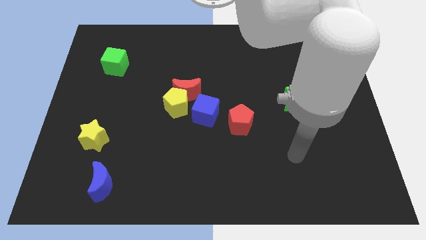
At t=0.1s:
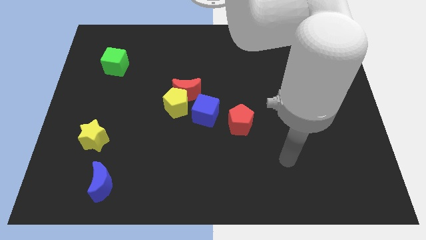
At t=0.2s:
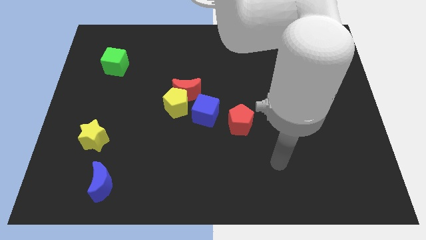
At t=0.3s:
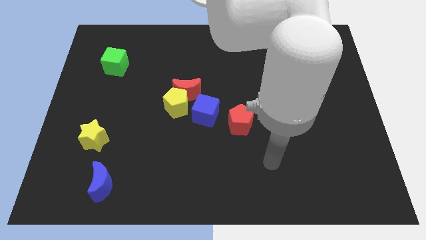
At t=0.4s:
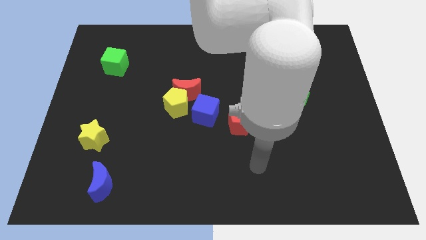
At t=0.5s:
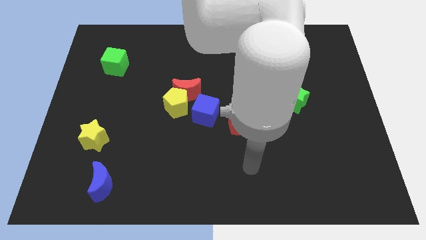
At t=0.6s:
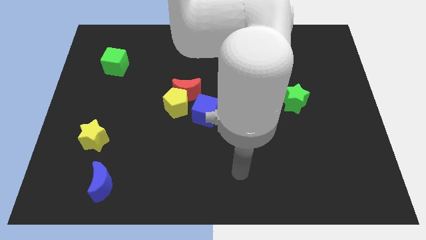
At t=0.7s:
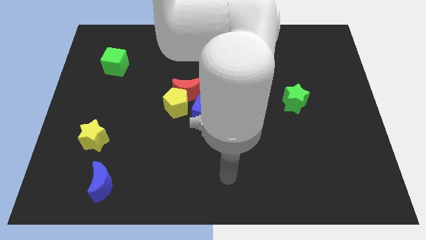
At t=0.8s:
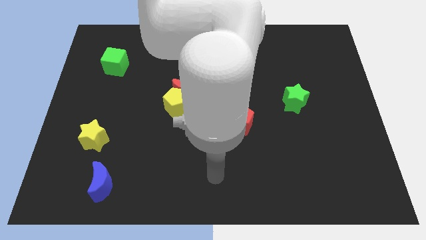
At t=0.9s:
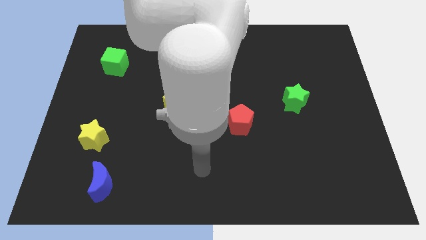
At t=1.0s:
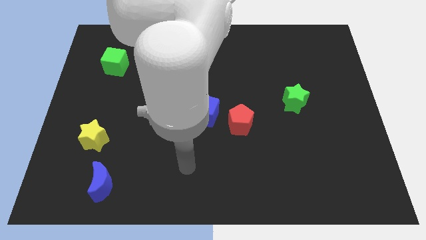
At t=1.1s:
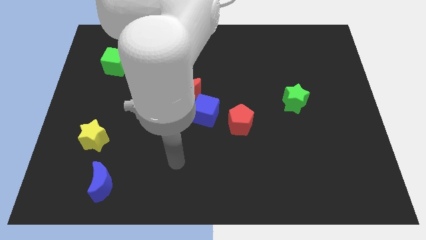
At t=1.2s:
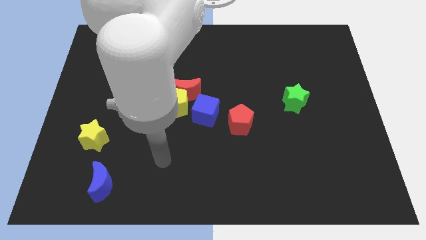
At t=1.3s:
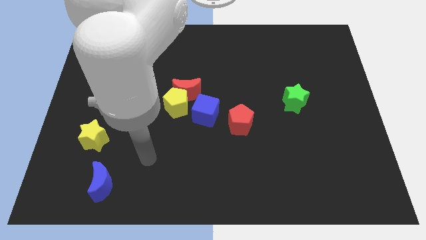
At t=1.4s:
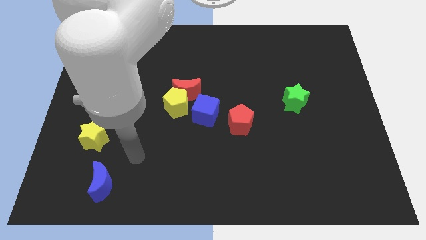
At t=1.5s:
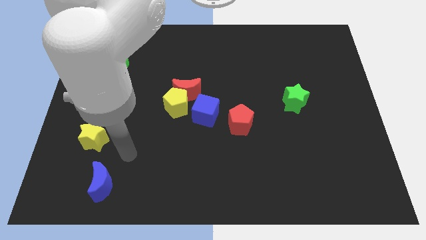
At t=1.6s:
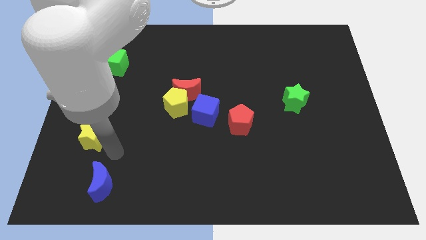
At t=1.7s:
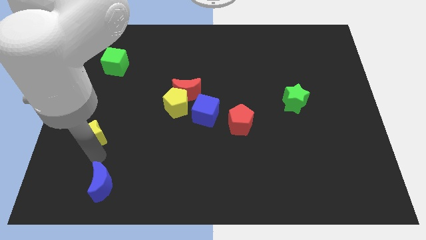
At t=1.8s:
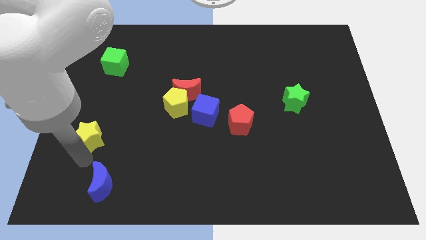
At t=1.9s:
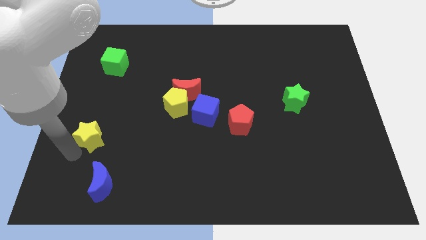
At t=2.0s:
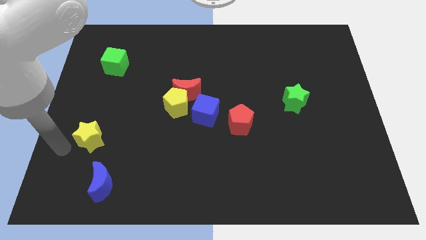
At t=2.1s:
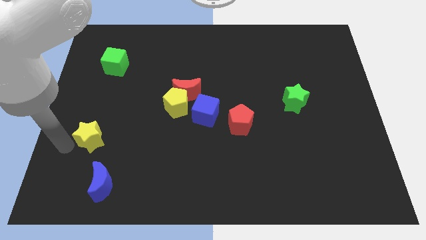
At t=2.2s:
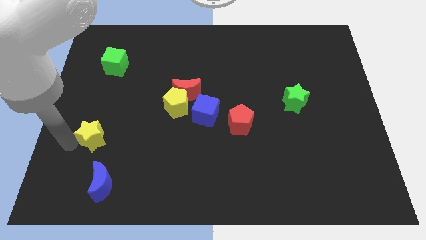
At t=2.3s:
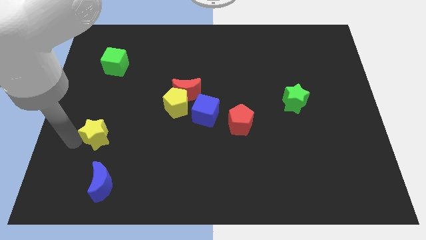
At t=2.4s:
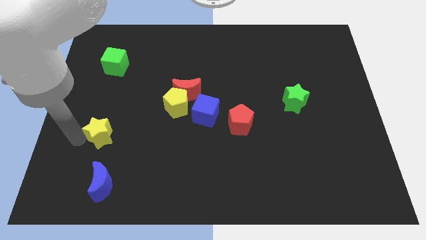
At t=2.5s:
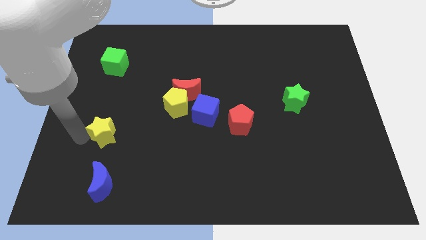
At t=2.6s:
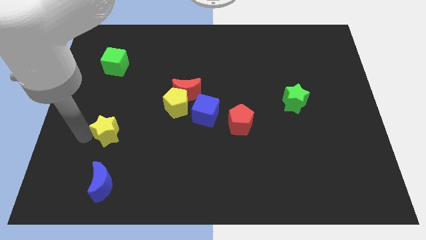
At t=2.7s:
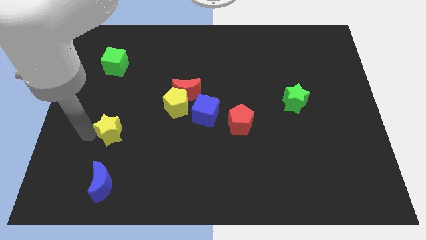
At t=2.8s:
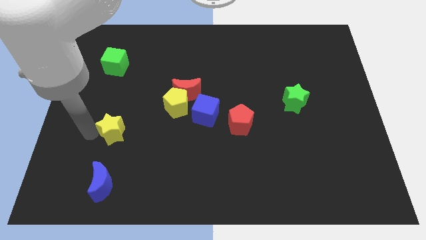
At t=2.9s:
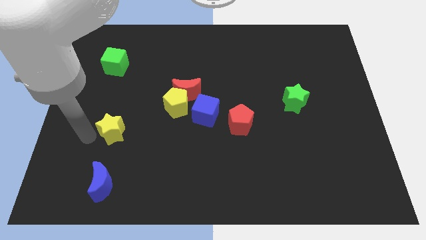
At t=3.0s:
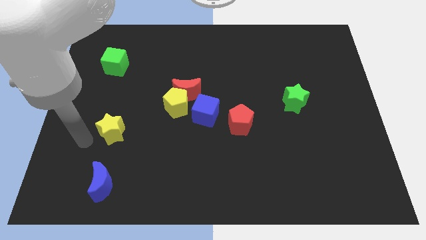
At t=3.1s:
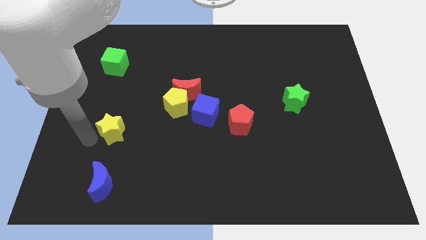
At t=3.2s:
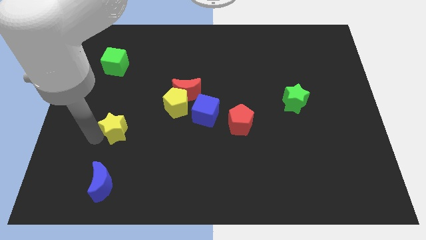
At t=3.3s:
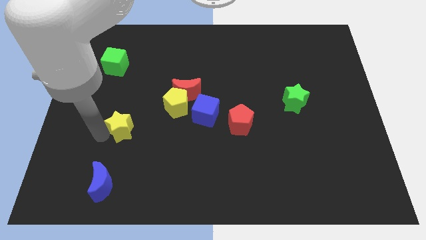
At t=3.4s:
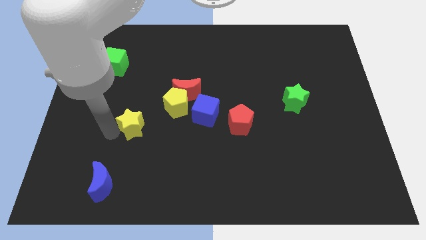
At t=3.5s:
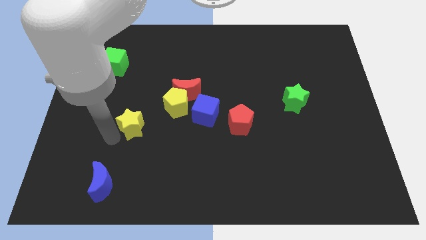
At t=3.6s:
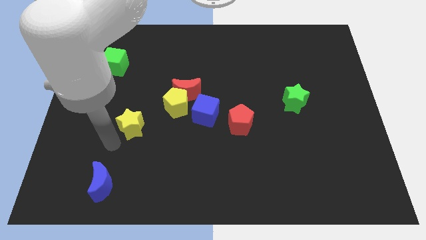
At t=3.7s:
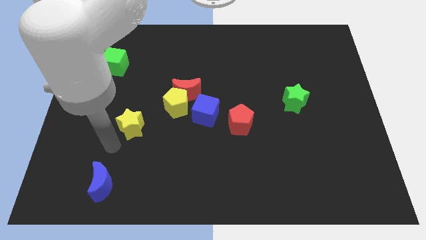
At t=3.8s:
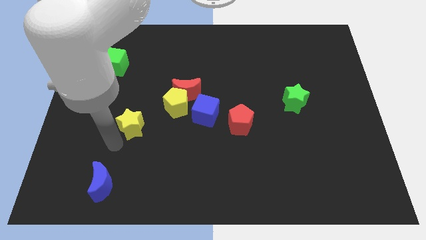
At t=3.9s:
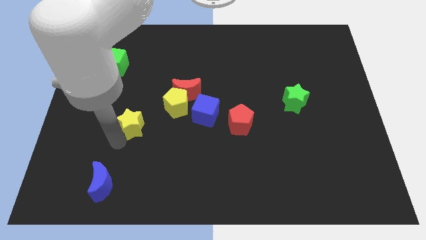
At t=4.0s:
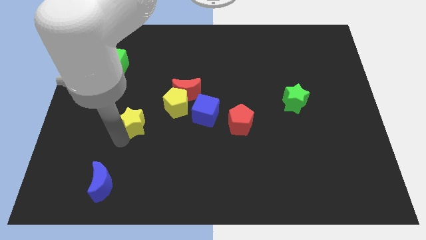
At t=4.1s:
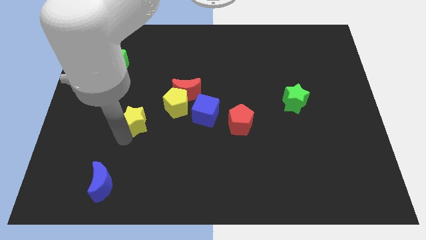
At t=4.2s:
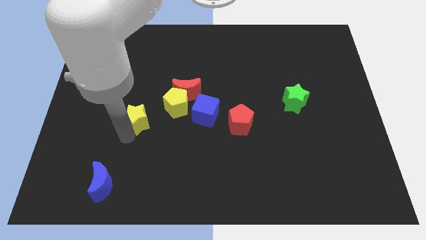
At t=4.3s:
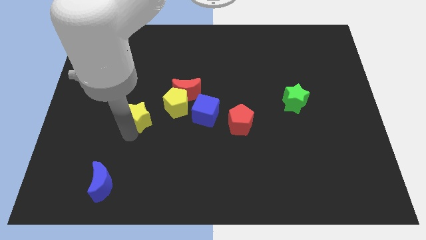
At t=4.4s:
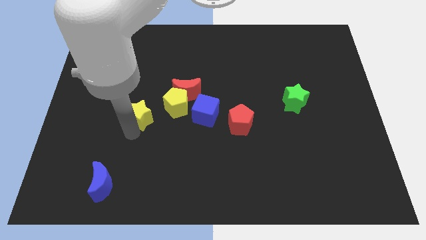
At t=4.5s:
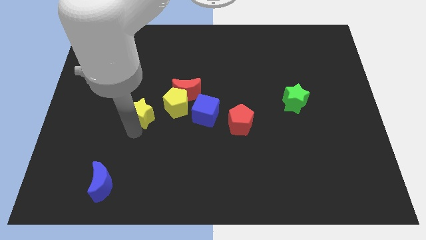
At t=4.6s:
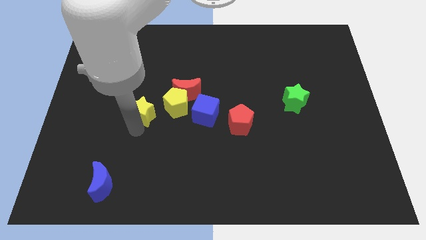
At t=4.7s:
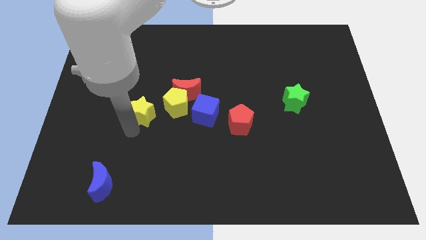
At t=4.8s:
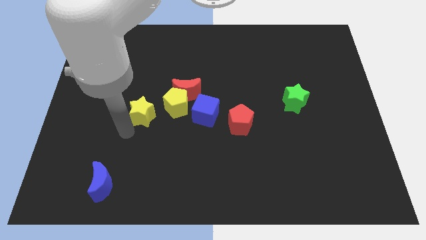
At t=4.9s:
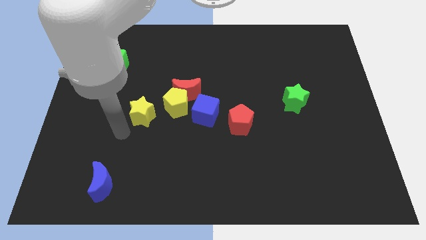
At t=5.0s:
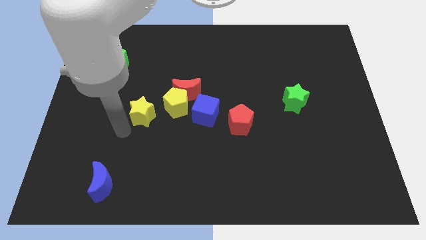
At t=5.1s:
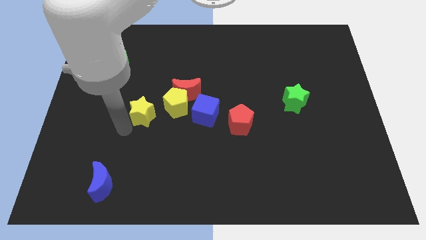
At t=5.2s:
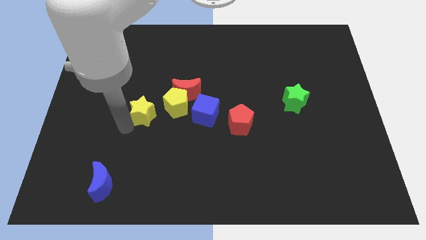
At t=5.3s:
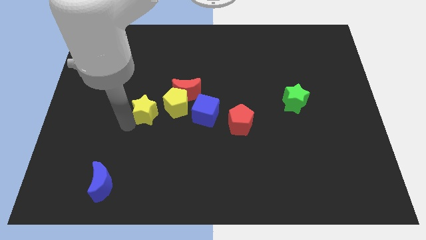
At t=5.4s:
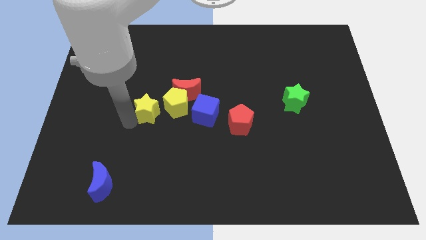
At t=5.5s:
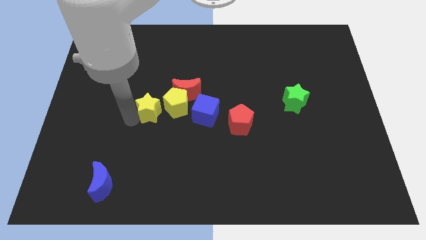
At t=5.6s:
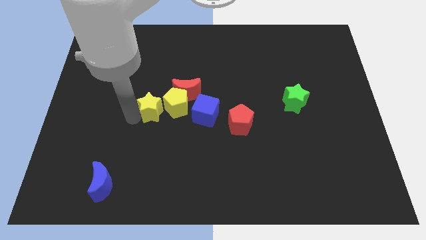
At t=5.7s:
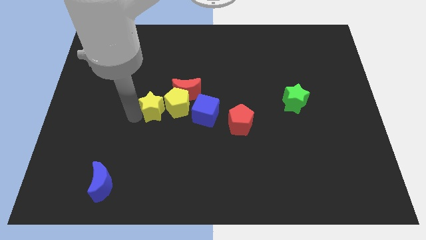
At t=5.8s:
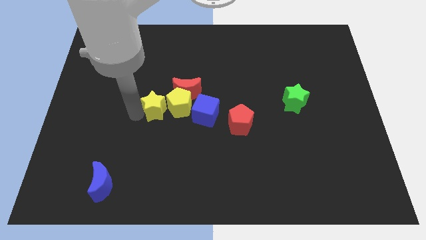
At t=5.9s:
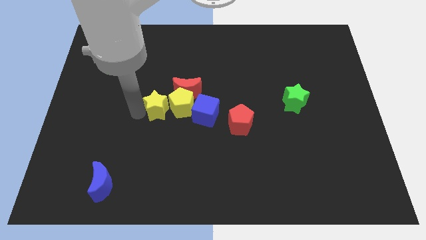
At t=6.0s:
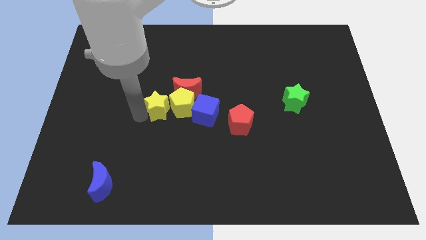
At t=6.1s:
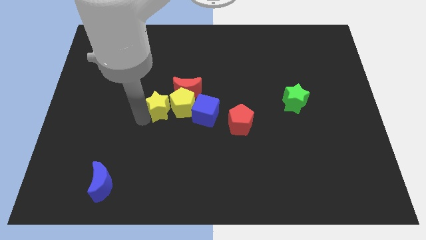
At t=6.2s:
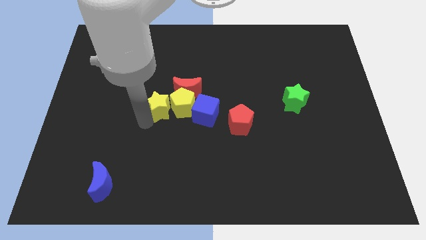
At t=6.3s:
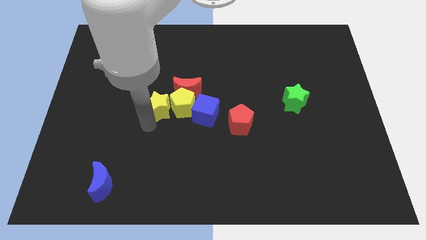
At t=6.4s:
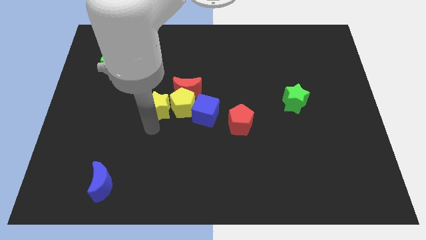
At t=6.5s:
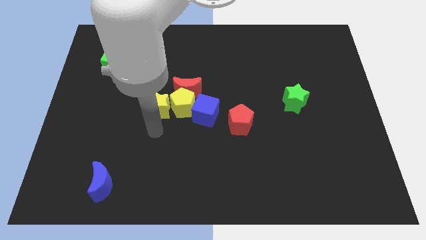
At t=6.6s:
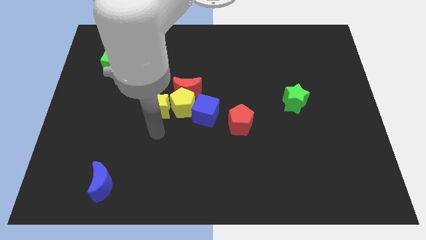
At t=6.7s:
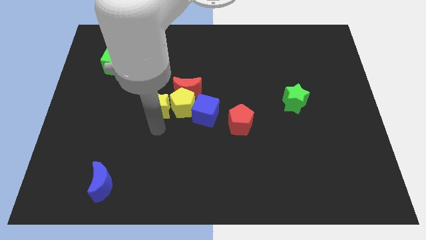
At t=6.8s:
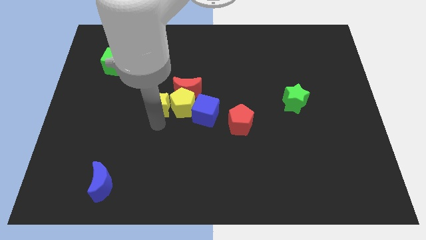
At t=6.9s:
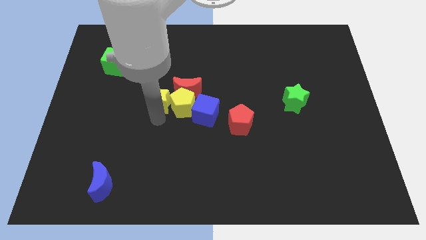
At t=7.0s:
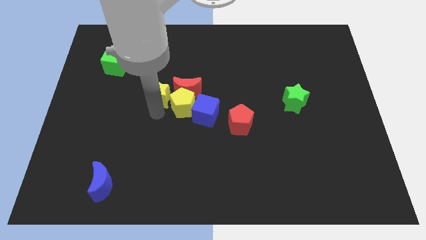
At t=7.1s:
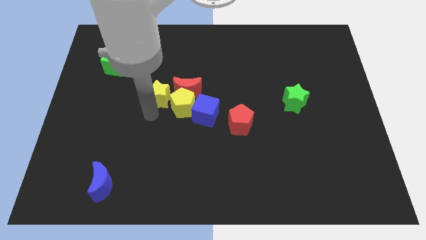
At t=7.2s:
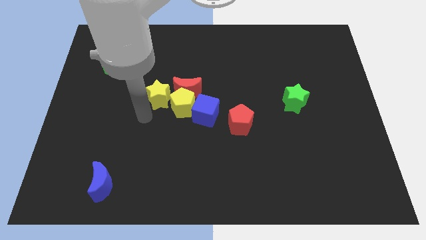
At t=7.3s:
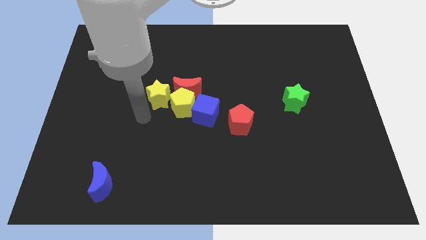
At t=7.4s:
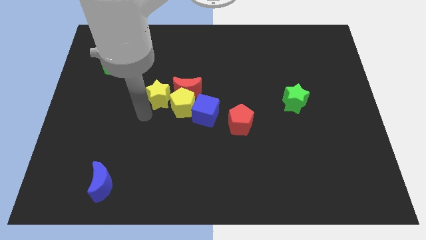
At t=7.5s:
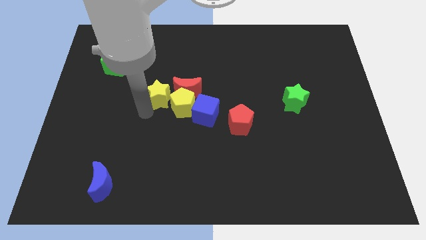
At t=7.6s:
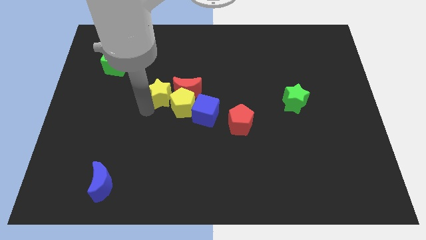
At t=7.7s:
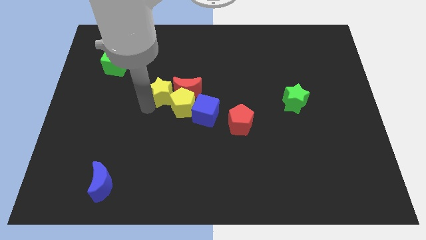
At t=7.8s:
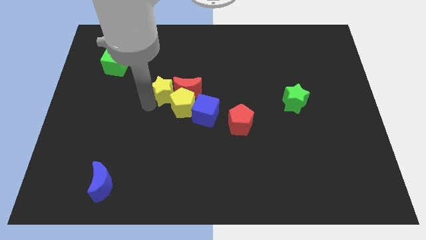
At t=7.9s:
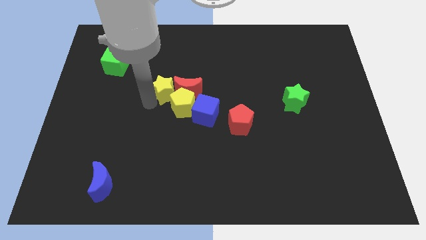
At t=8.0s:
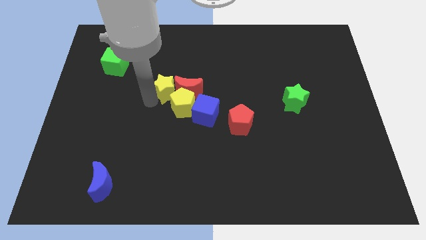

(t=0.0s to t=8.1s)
slide the yellow star diagonally upwards and right

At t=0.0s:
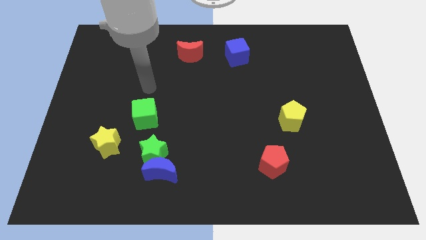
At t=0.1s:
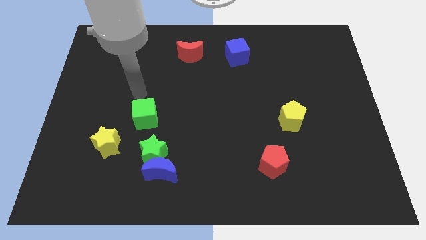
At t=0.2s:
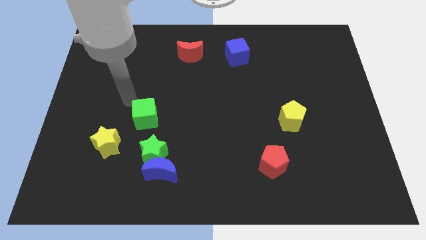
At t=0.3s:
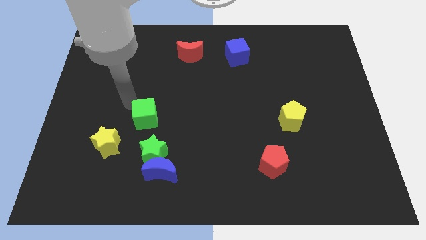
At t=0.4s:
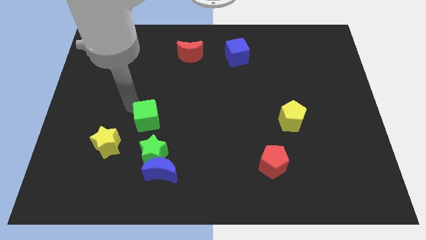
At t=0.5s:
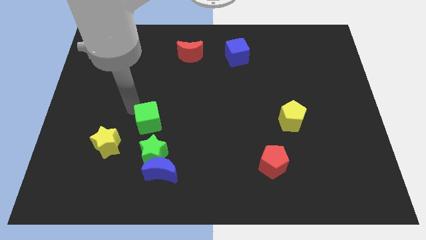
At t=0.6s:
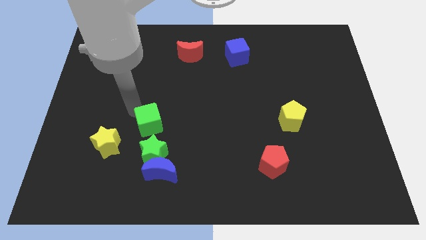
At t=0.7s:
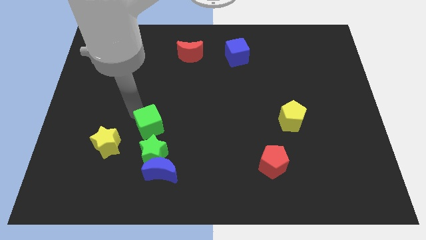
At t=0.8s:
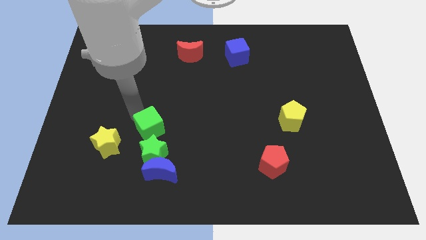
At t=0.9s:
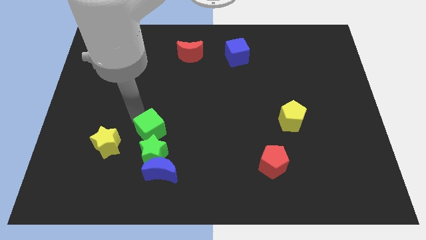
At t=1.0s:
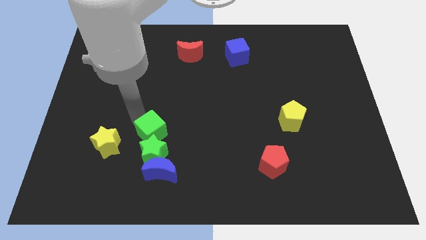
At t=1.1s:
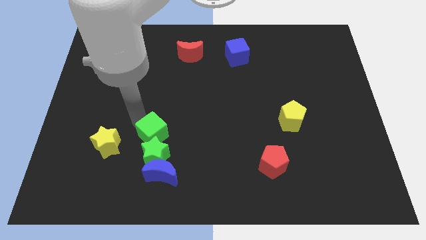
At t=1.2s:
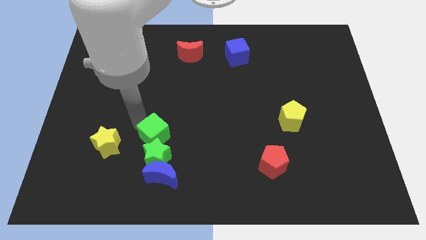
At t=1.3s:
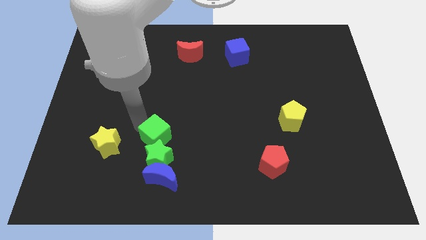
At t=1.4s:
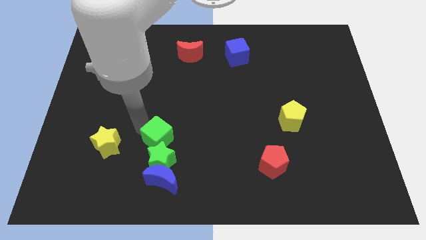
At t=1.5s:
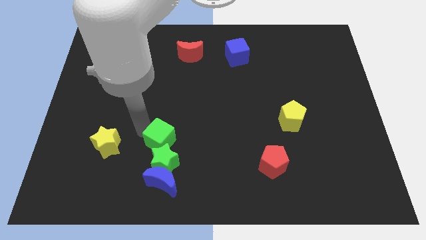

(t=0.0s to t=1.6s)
push the green cube slightly diagonally down and to the right
